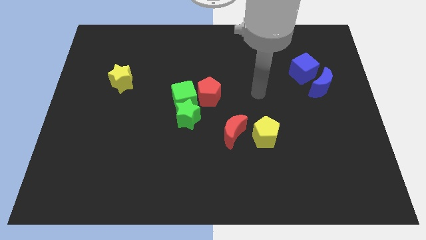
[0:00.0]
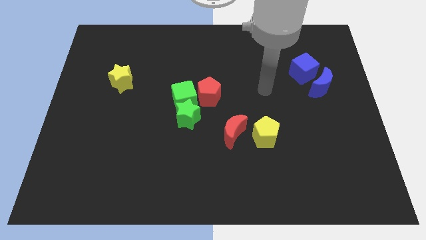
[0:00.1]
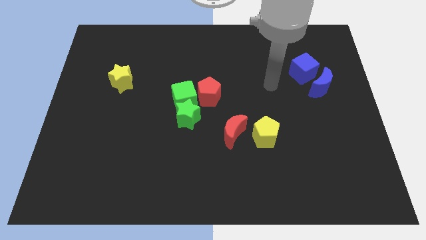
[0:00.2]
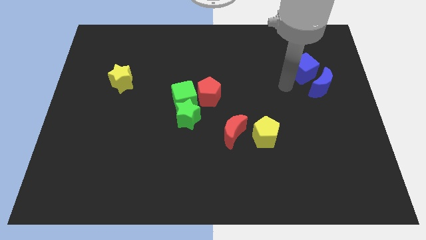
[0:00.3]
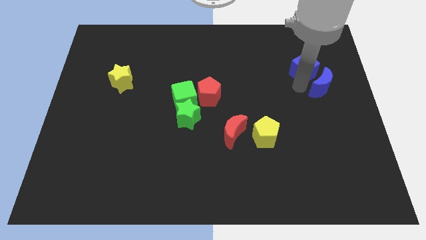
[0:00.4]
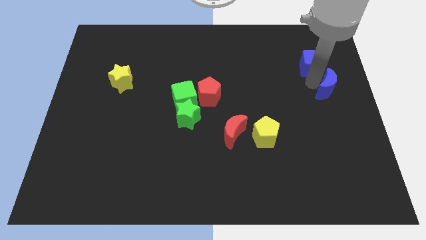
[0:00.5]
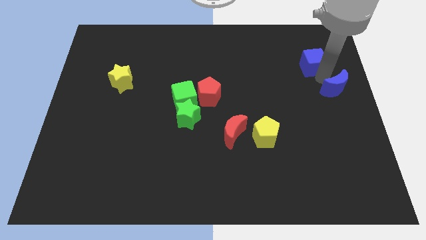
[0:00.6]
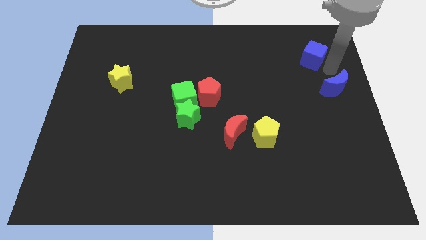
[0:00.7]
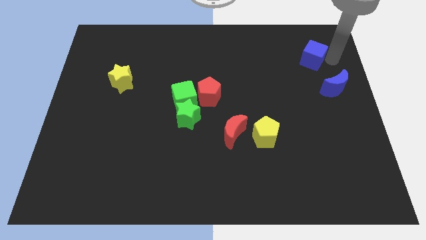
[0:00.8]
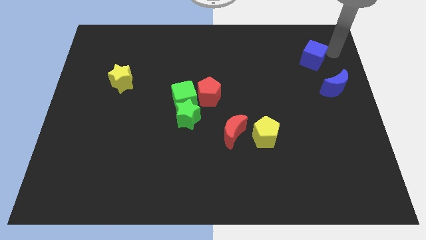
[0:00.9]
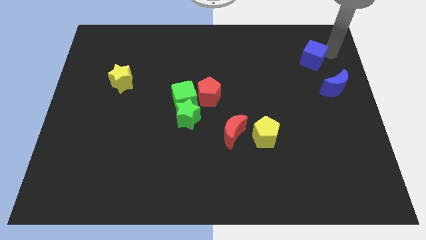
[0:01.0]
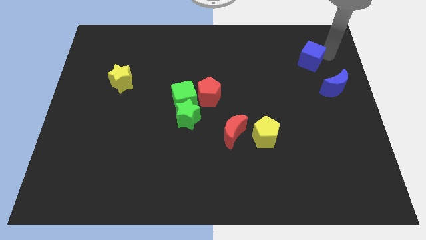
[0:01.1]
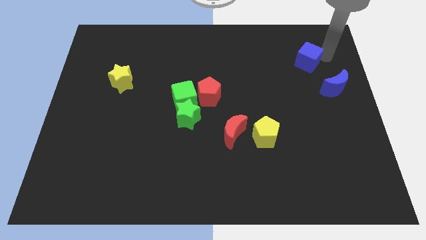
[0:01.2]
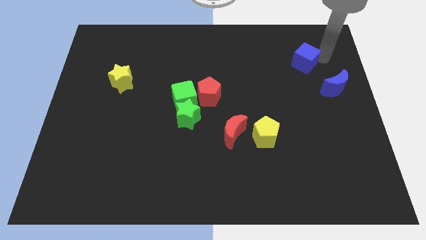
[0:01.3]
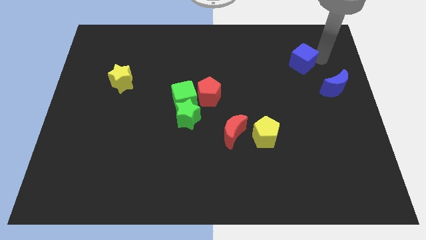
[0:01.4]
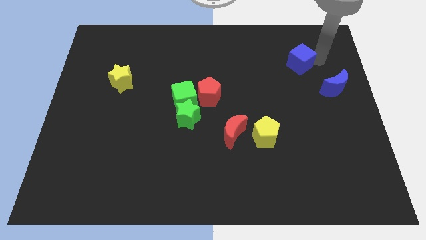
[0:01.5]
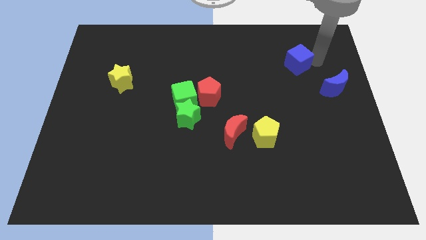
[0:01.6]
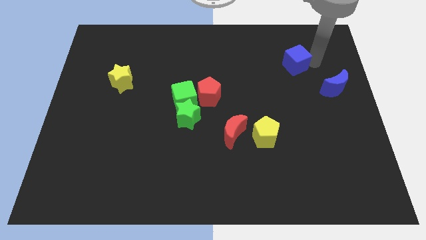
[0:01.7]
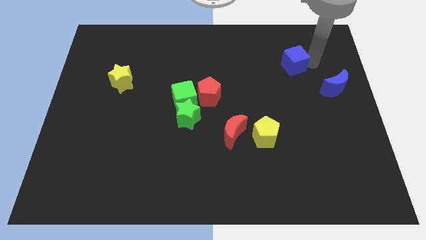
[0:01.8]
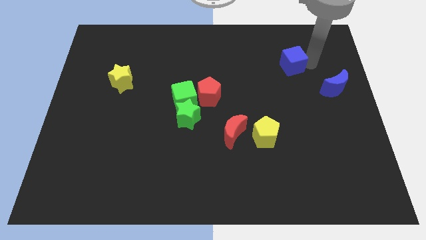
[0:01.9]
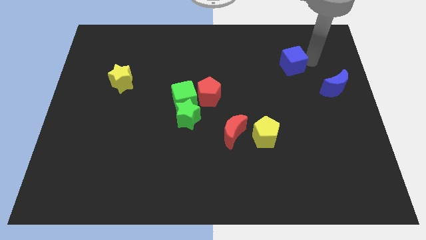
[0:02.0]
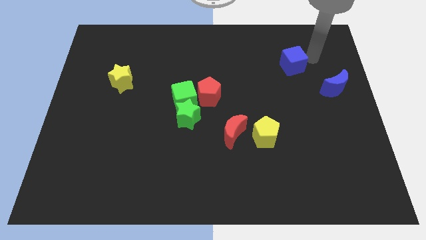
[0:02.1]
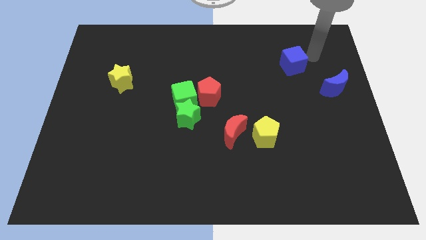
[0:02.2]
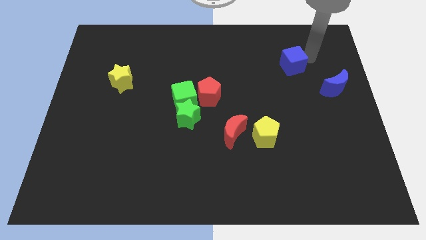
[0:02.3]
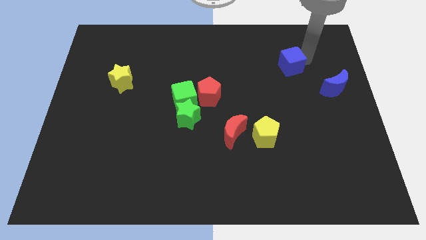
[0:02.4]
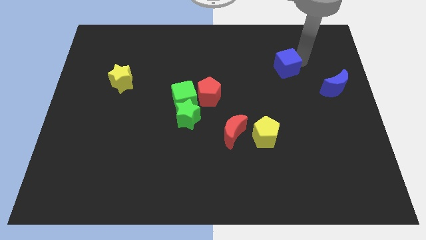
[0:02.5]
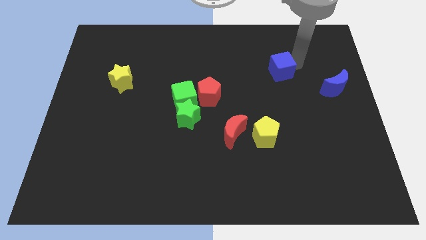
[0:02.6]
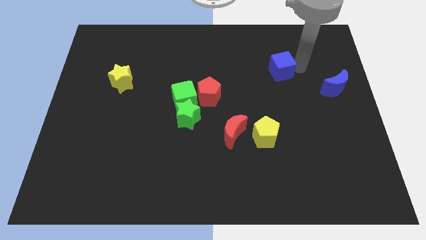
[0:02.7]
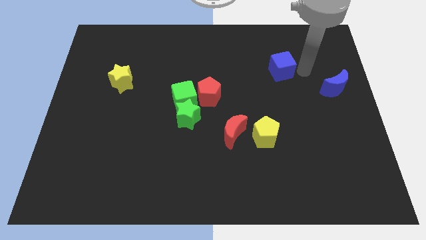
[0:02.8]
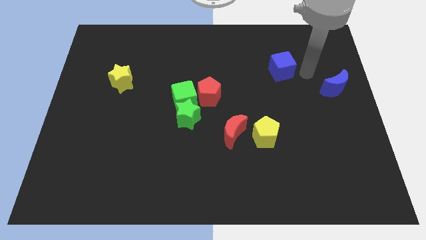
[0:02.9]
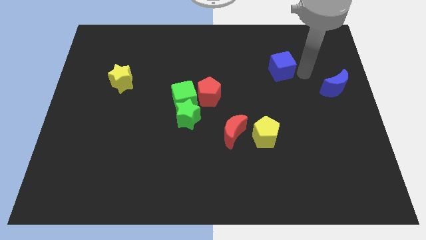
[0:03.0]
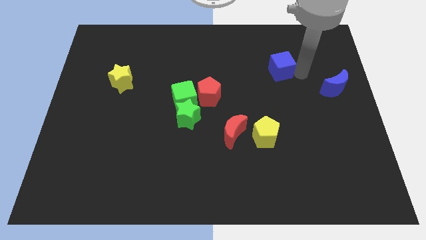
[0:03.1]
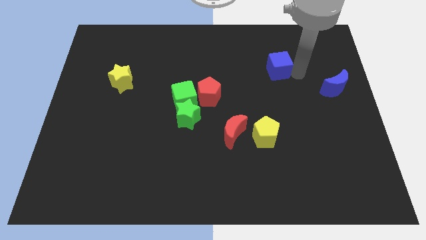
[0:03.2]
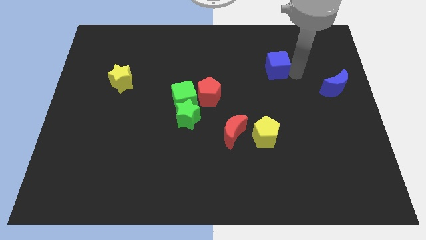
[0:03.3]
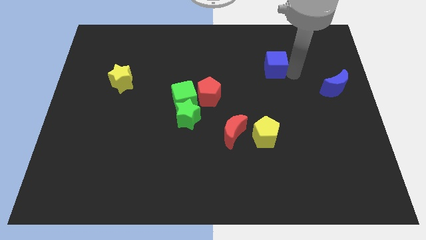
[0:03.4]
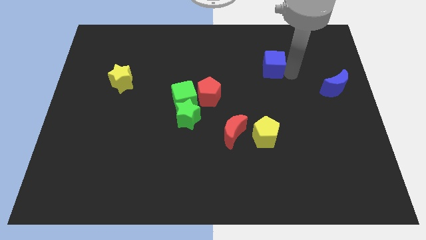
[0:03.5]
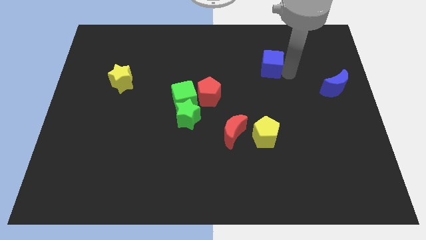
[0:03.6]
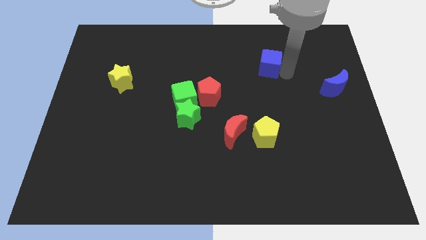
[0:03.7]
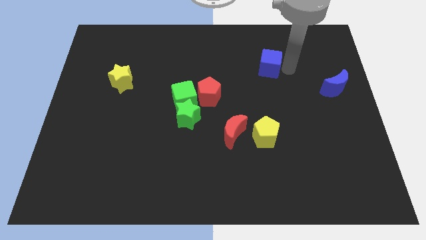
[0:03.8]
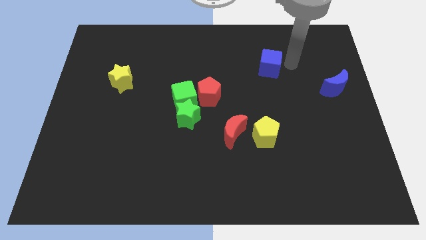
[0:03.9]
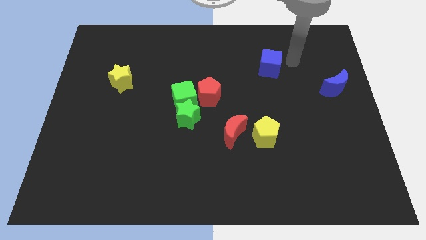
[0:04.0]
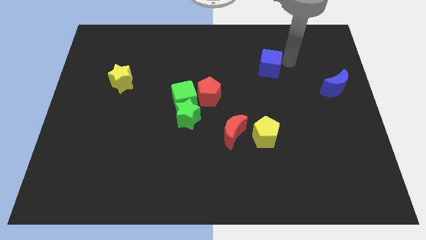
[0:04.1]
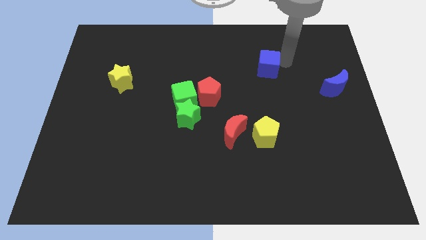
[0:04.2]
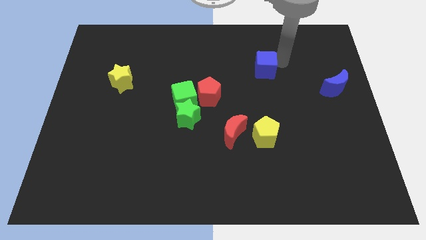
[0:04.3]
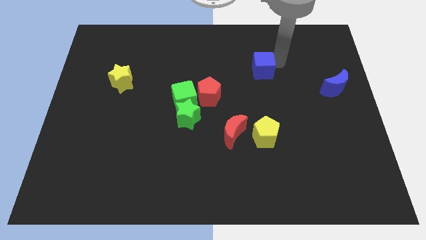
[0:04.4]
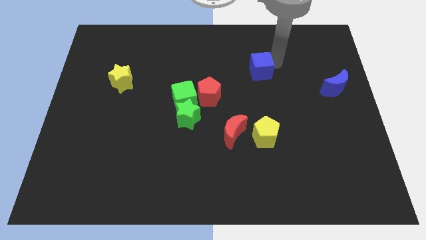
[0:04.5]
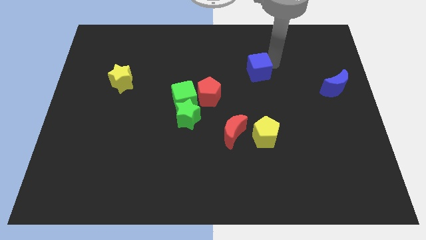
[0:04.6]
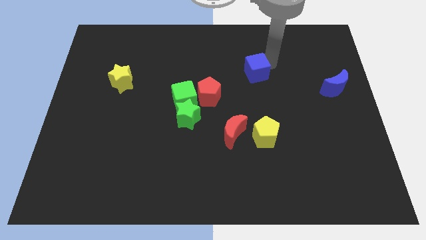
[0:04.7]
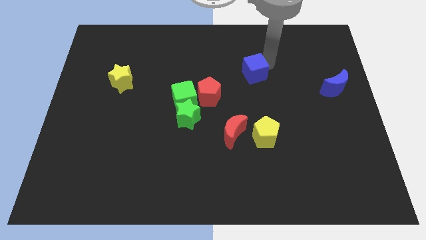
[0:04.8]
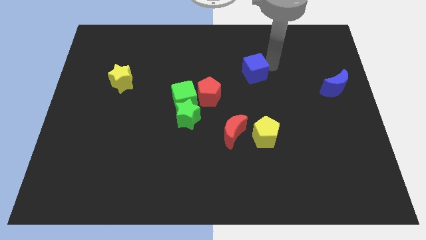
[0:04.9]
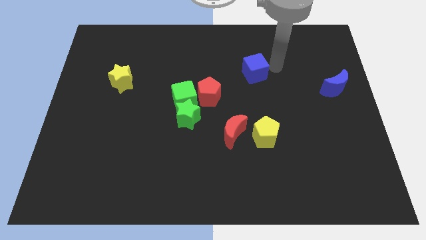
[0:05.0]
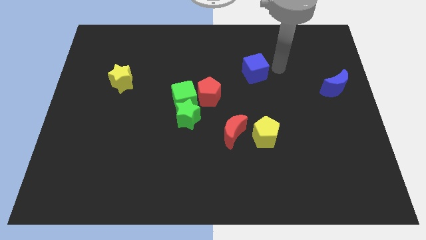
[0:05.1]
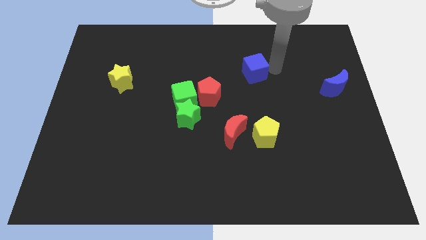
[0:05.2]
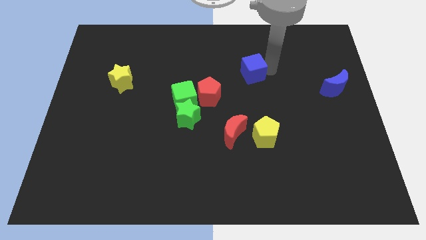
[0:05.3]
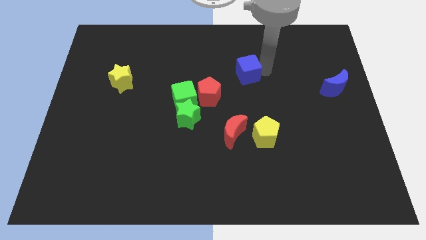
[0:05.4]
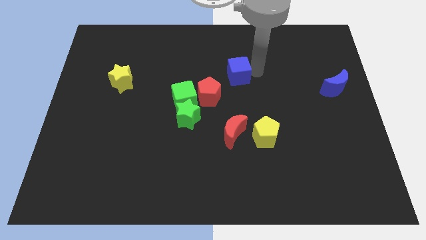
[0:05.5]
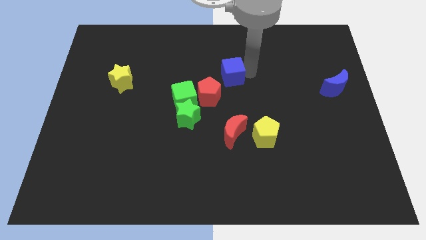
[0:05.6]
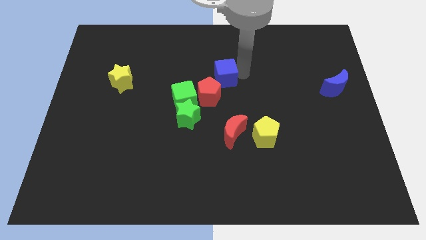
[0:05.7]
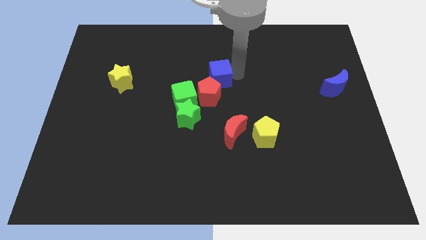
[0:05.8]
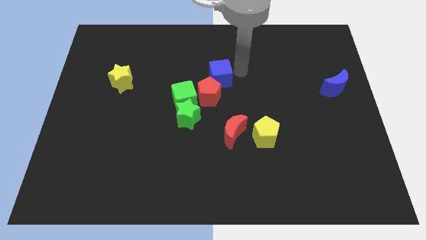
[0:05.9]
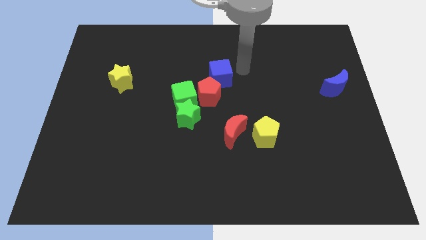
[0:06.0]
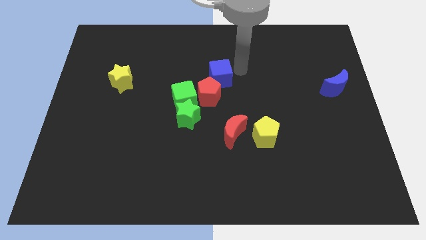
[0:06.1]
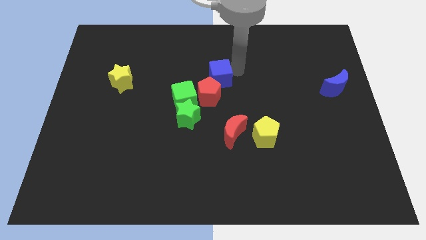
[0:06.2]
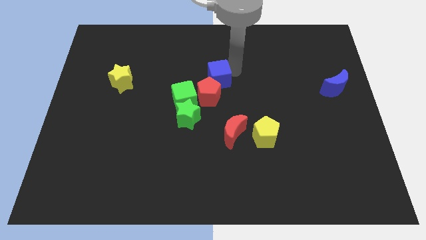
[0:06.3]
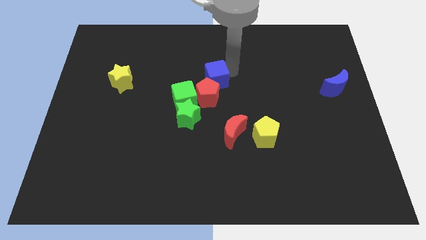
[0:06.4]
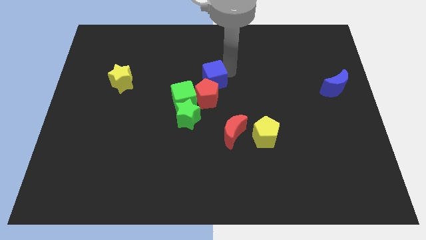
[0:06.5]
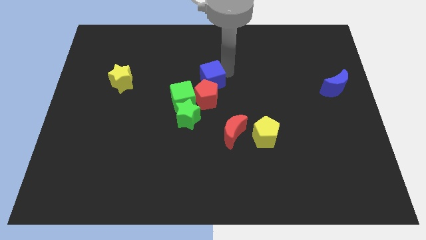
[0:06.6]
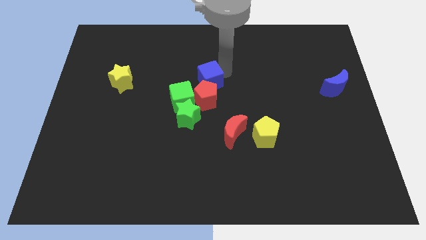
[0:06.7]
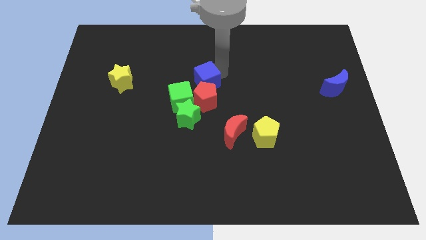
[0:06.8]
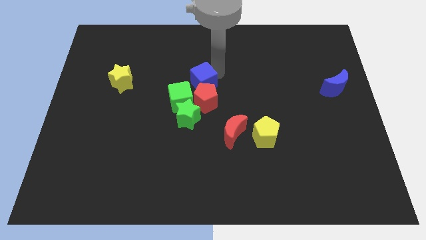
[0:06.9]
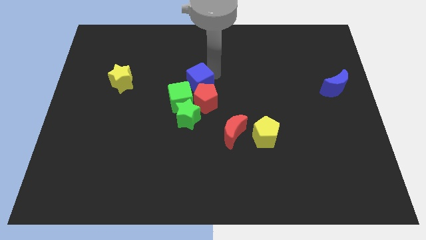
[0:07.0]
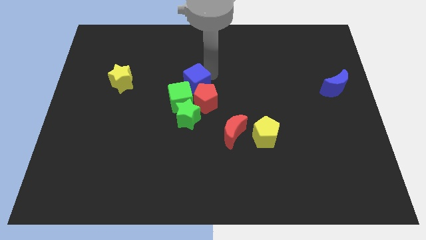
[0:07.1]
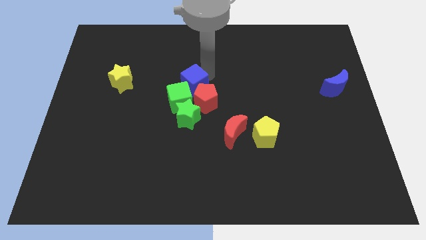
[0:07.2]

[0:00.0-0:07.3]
slide the blue cube towards the green cube

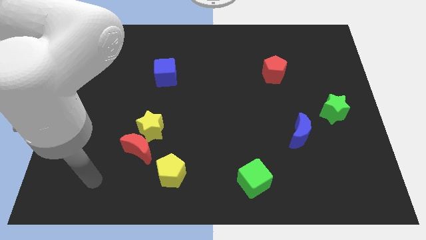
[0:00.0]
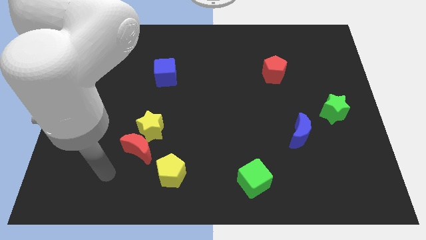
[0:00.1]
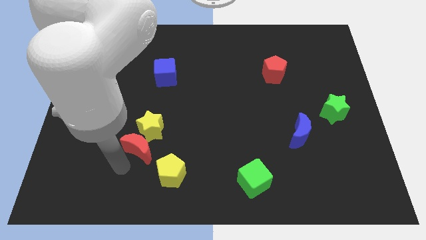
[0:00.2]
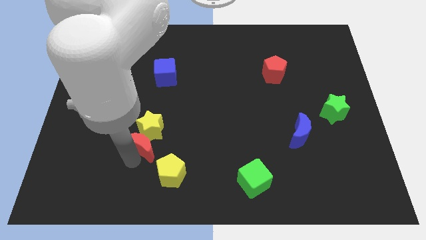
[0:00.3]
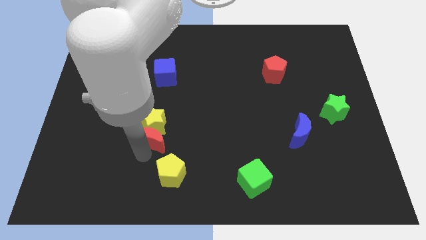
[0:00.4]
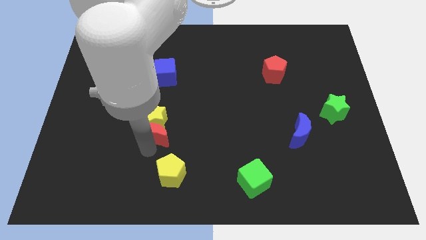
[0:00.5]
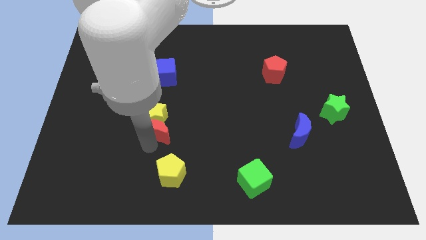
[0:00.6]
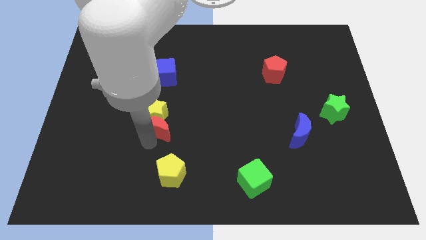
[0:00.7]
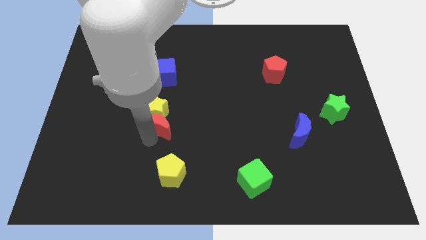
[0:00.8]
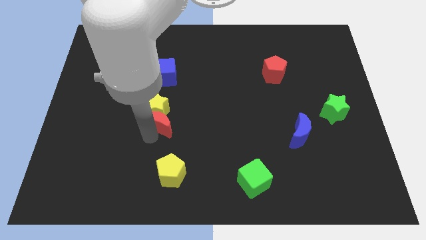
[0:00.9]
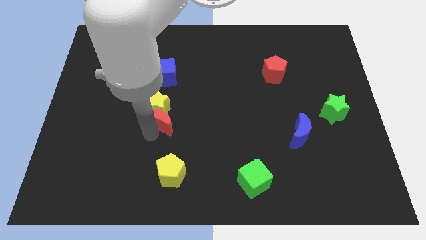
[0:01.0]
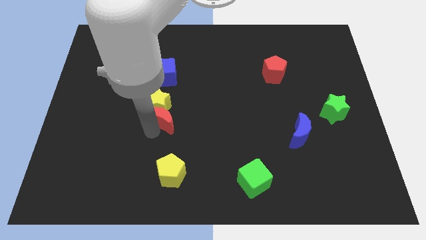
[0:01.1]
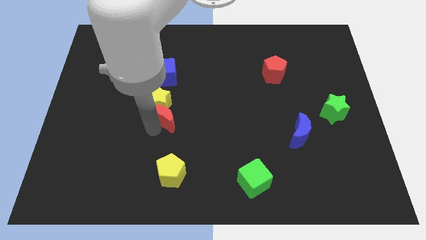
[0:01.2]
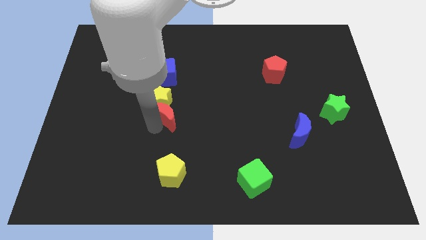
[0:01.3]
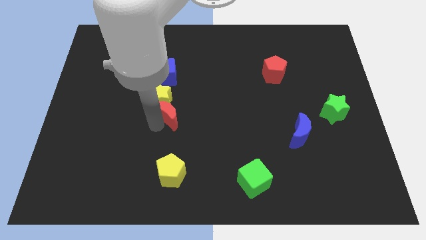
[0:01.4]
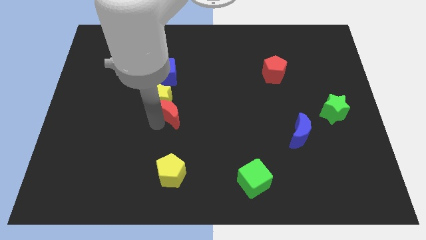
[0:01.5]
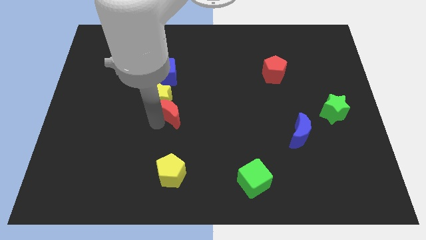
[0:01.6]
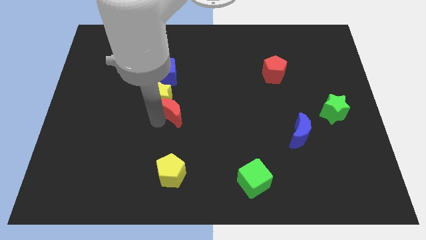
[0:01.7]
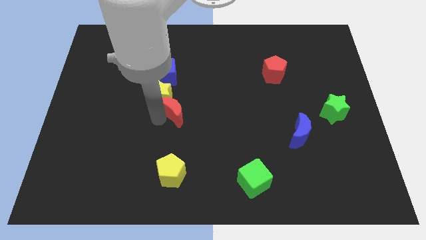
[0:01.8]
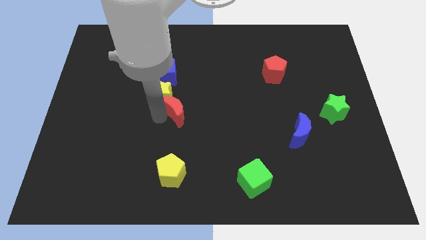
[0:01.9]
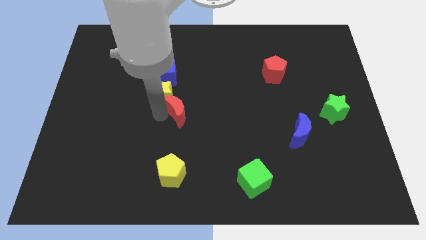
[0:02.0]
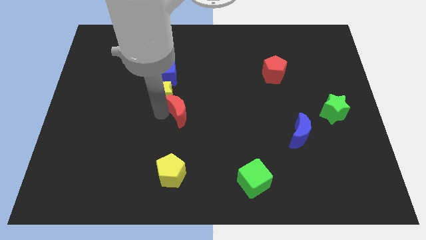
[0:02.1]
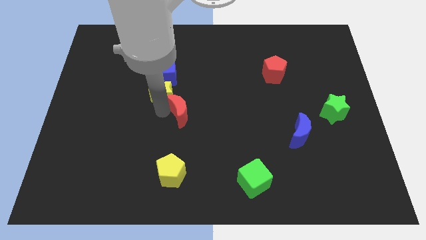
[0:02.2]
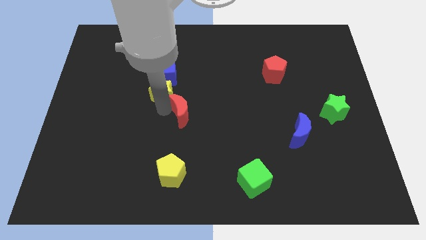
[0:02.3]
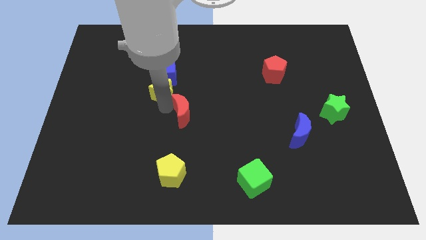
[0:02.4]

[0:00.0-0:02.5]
push the yellow star close to the blue cube
